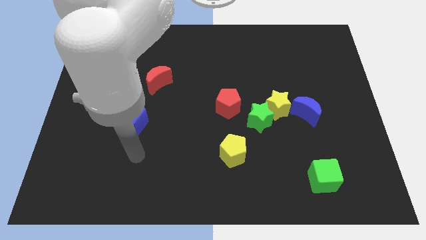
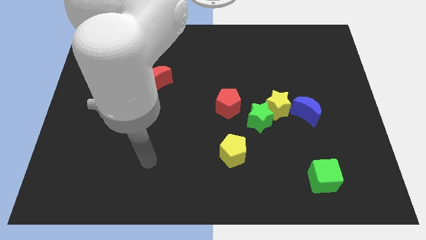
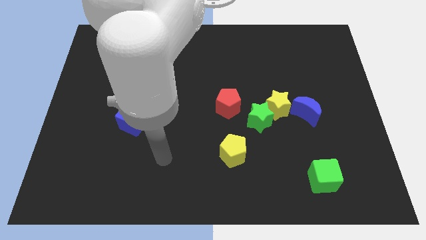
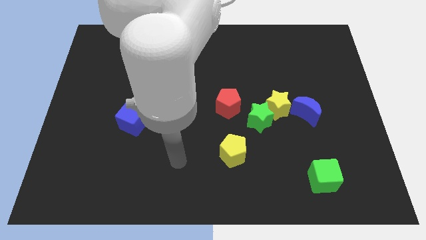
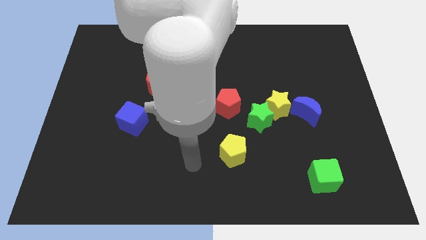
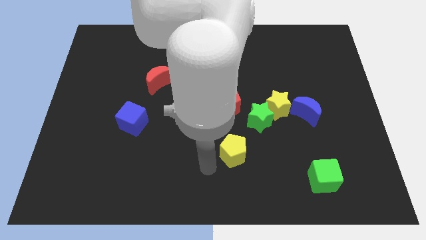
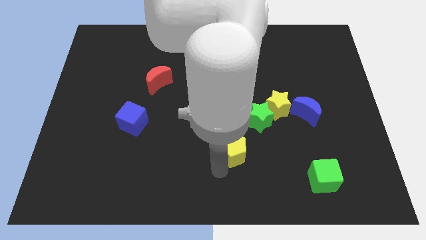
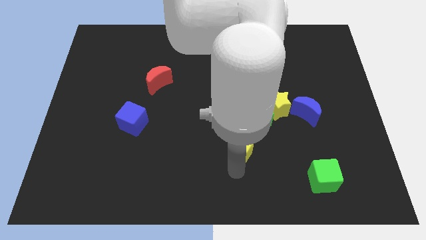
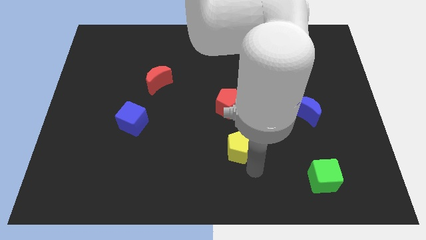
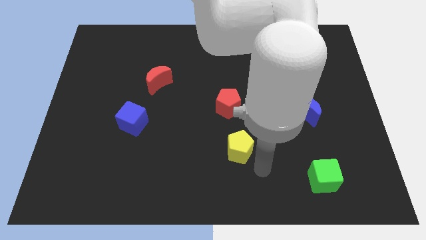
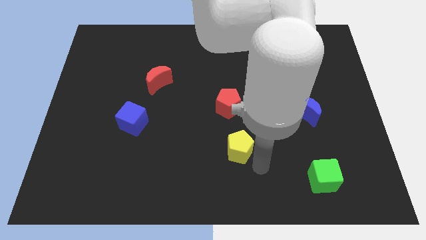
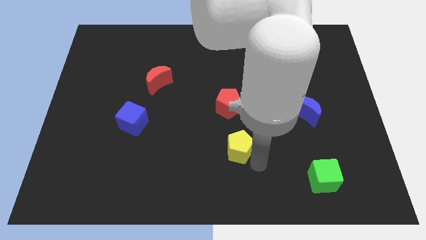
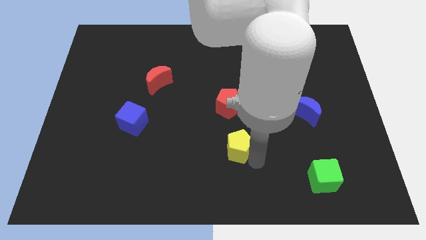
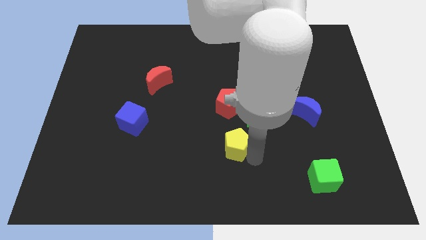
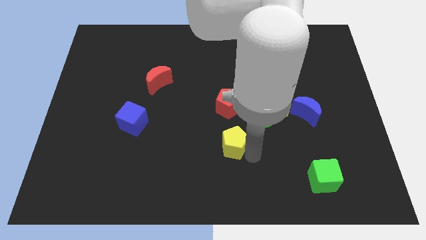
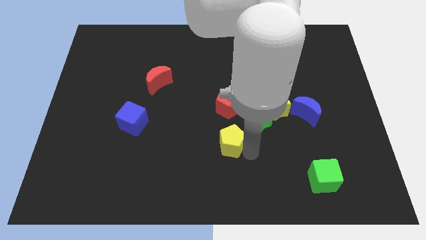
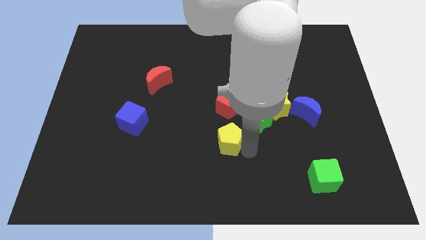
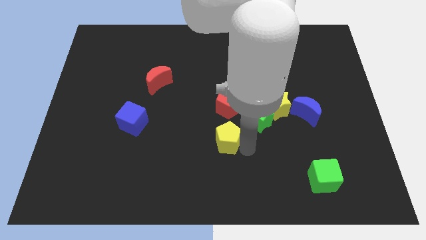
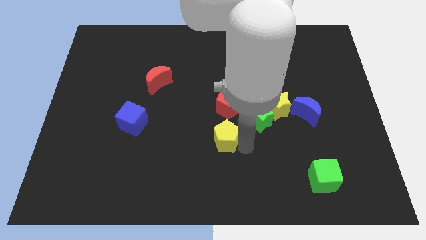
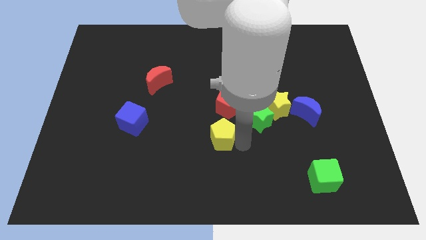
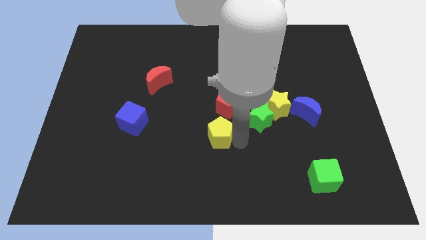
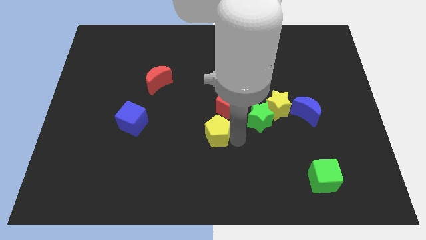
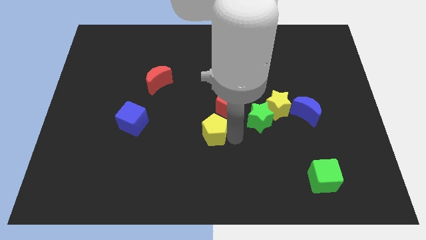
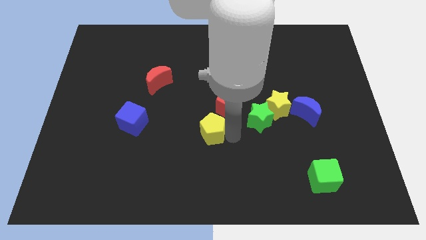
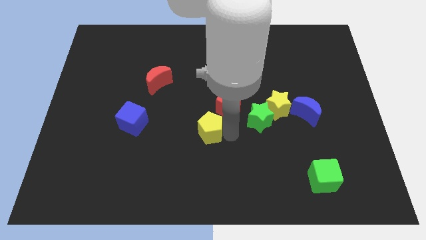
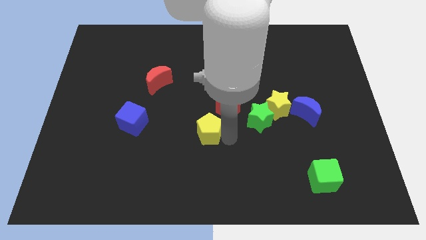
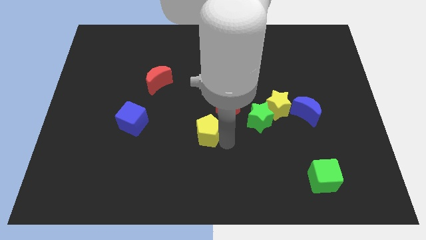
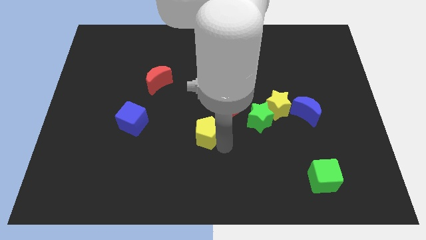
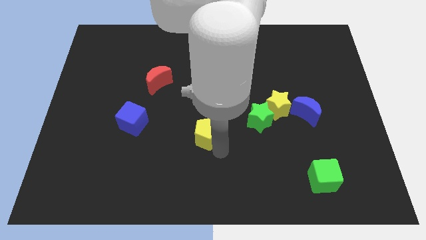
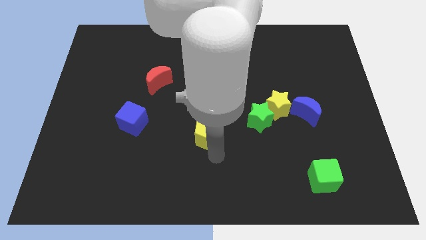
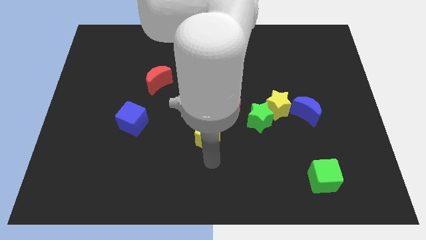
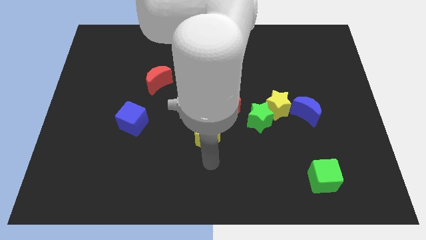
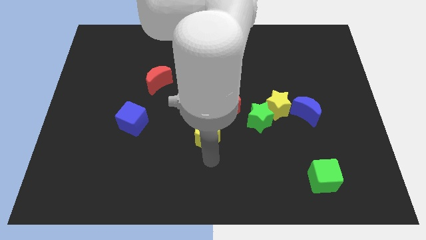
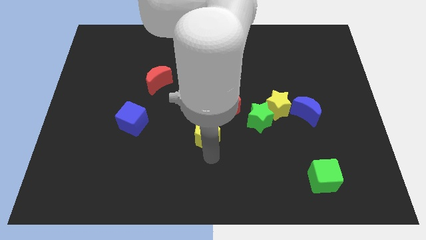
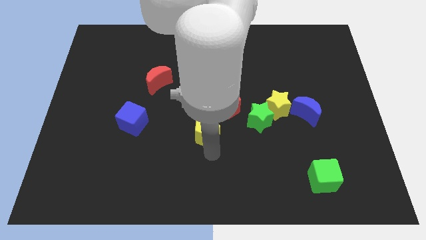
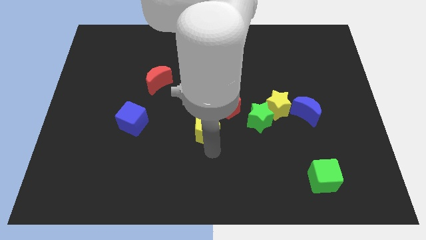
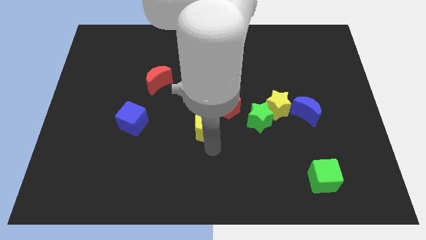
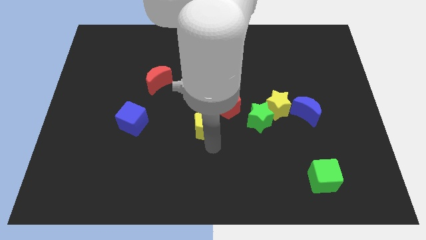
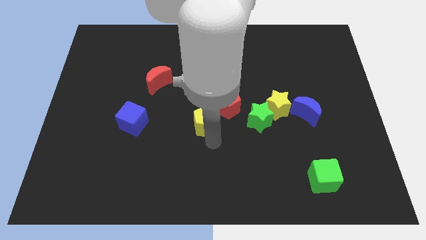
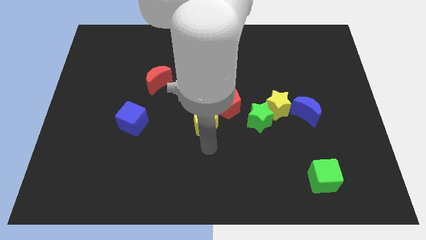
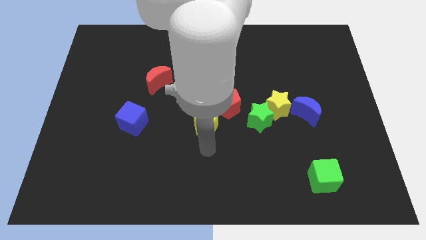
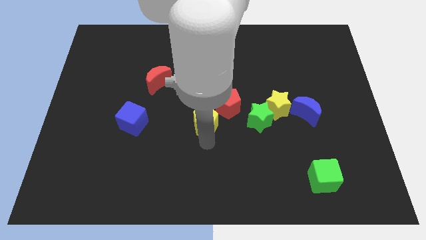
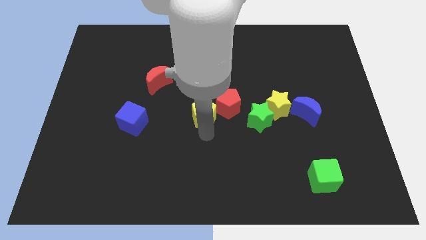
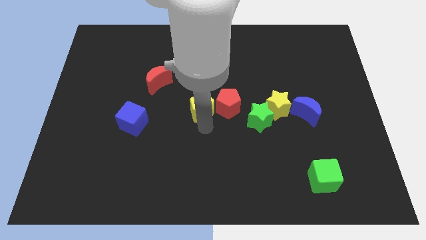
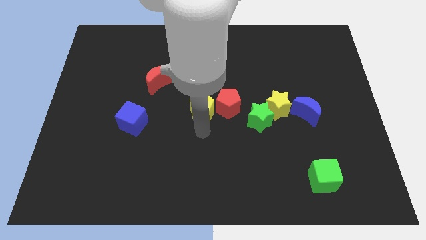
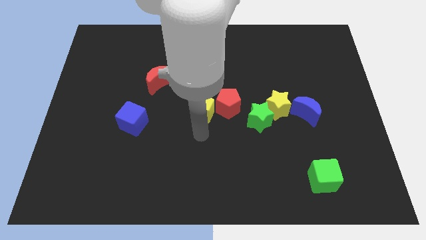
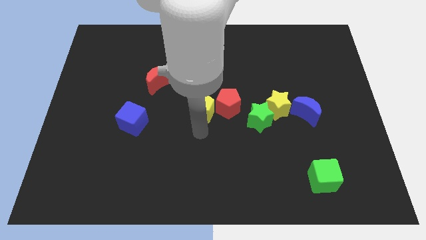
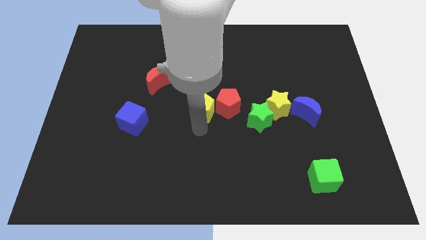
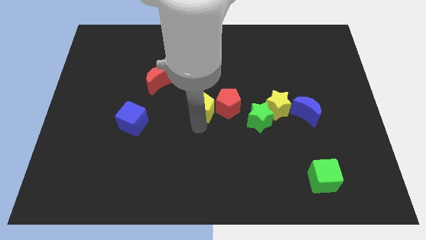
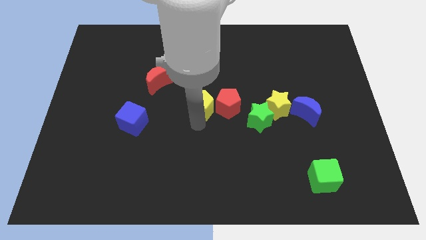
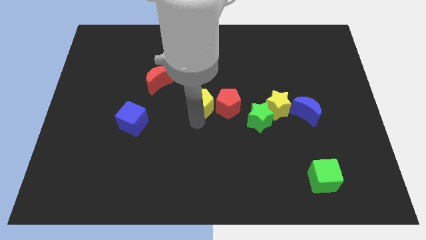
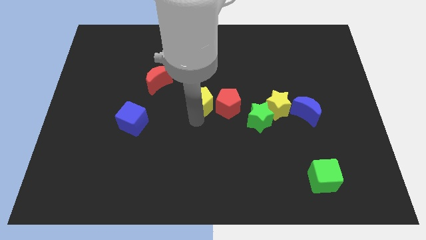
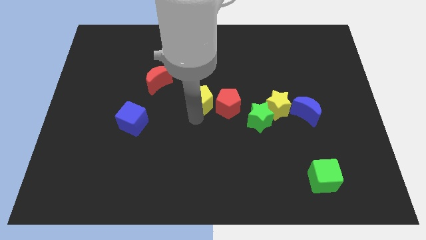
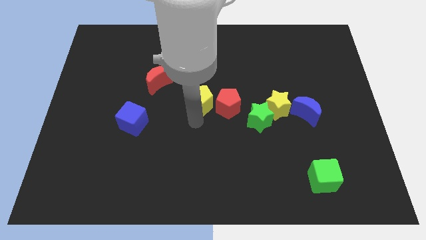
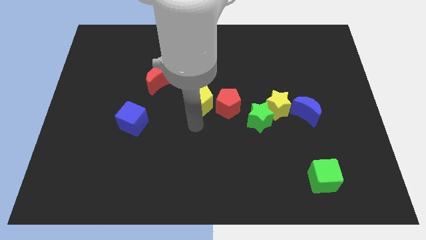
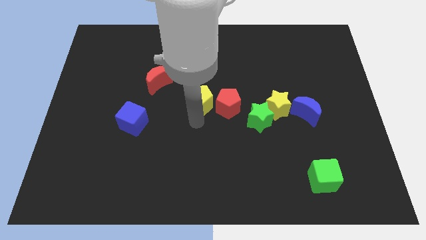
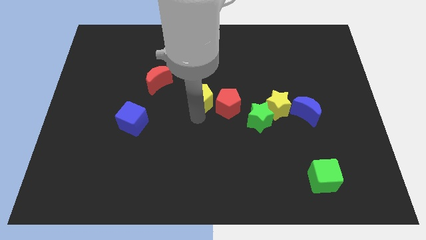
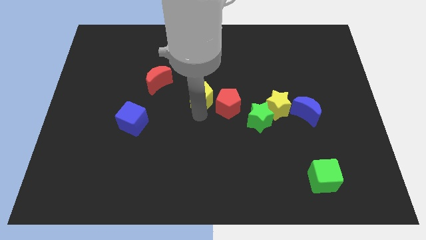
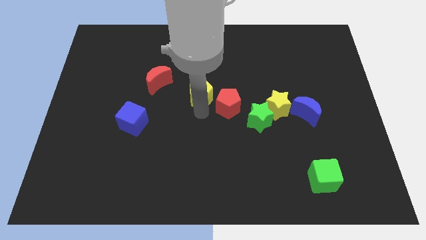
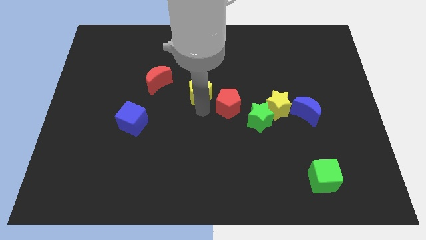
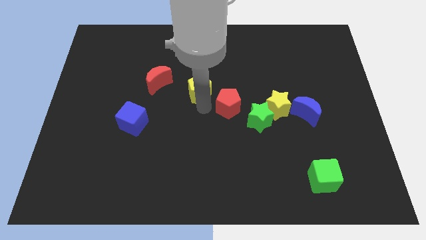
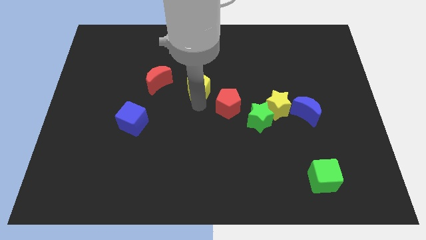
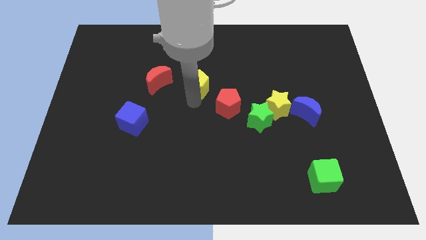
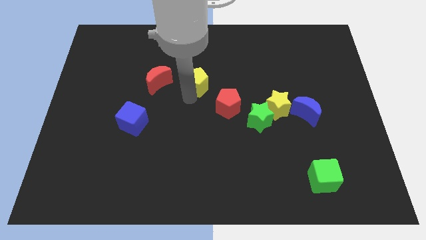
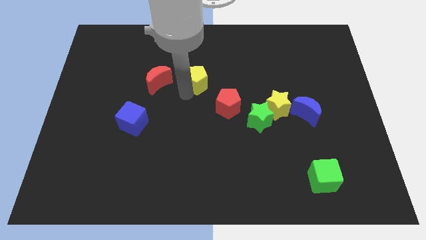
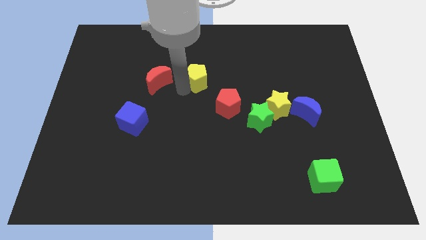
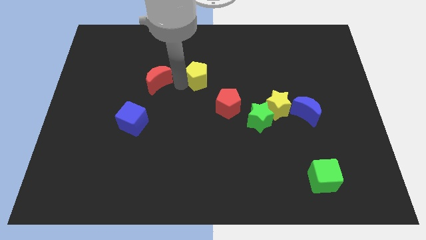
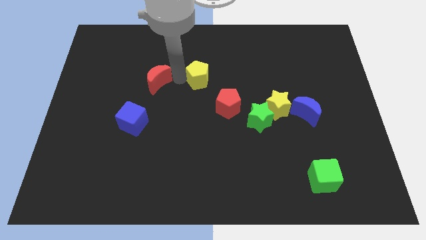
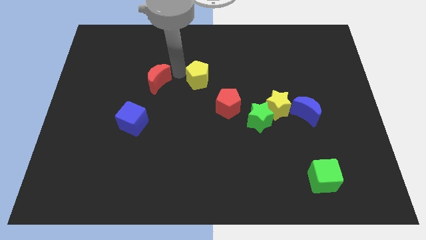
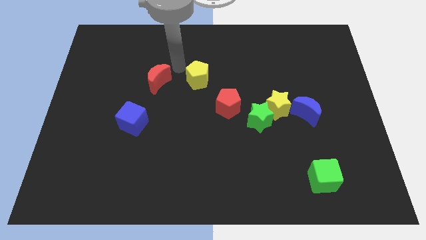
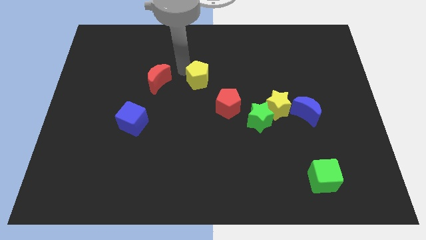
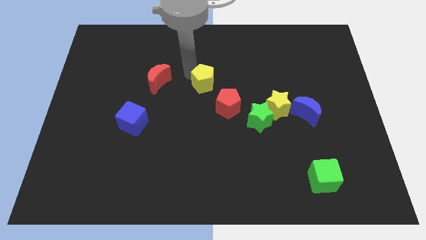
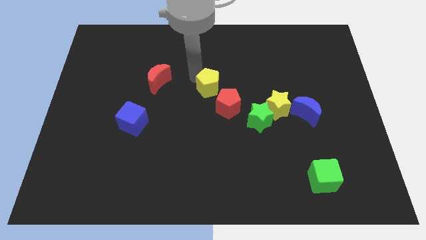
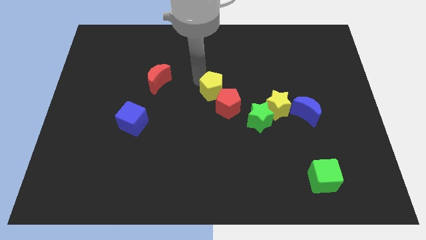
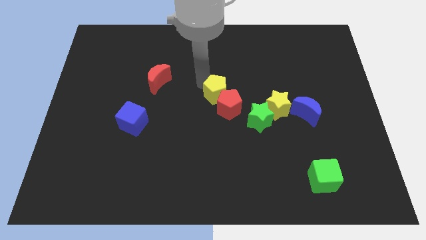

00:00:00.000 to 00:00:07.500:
put the yellow pentagon to the top left of the green star
